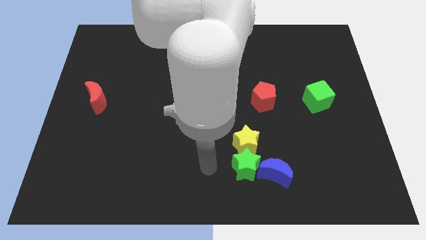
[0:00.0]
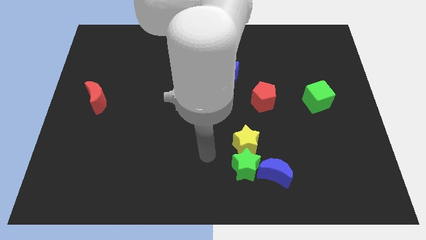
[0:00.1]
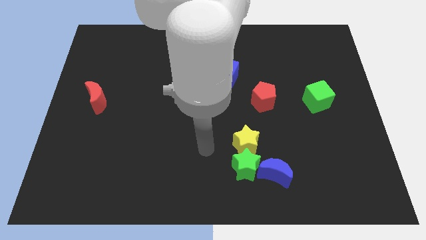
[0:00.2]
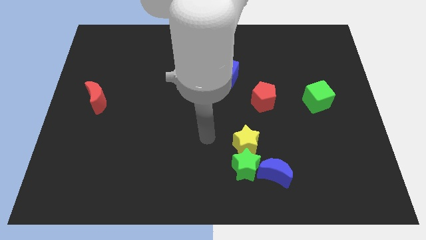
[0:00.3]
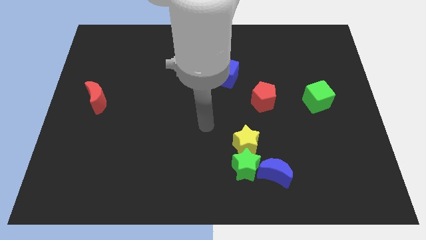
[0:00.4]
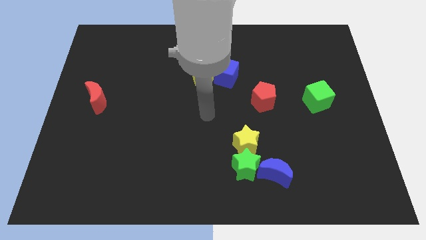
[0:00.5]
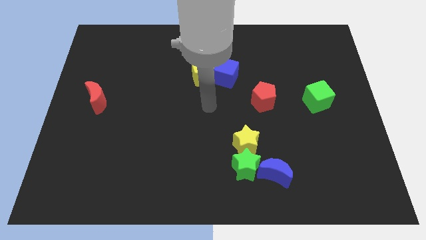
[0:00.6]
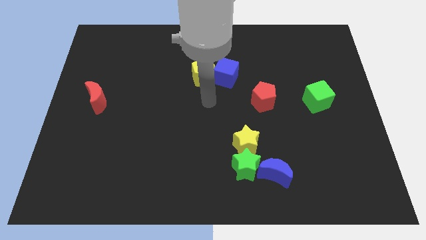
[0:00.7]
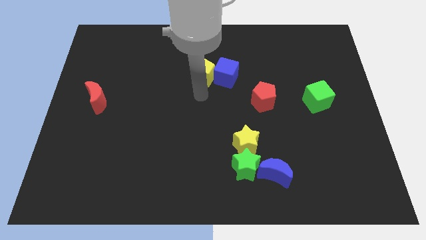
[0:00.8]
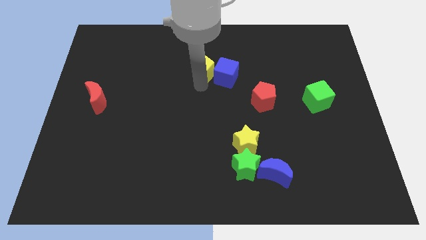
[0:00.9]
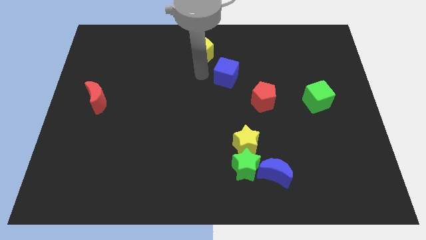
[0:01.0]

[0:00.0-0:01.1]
pull the blue cube apart from the yellow pentagon

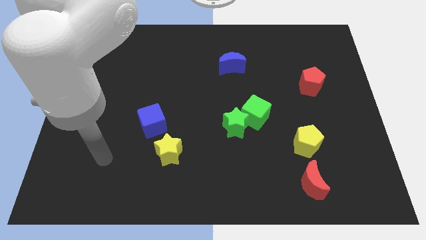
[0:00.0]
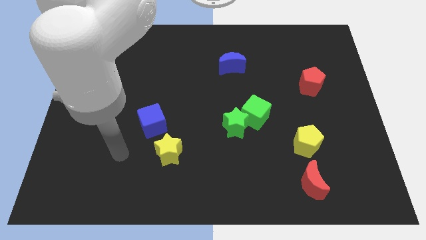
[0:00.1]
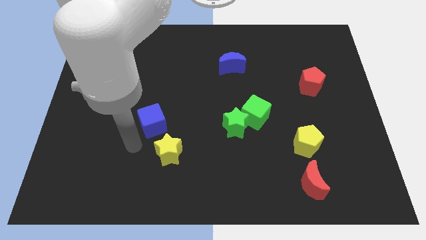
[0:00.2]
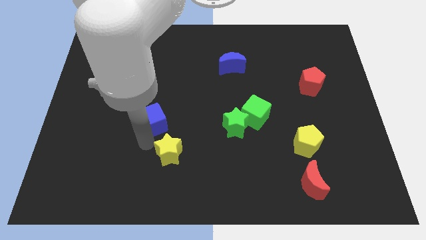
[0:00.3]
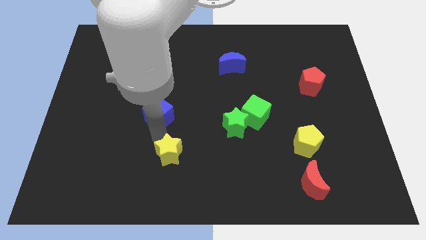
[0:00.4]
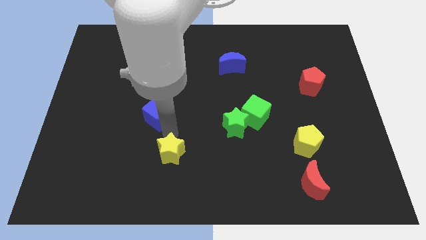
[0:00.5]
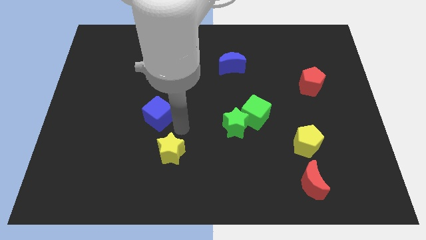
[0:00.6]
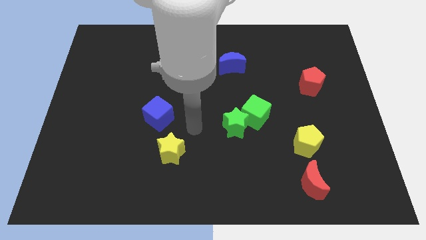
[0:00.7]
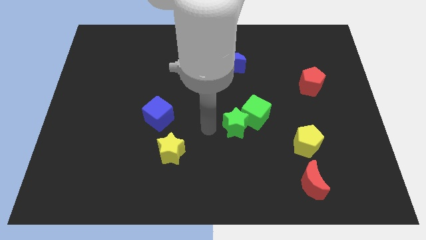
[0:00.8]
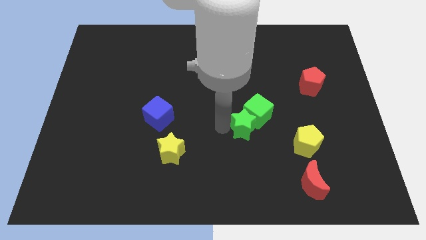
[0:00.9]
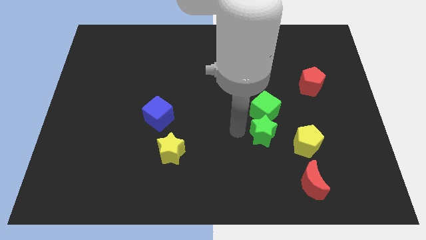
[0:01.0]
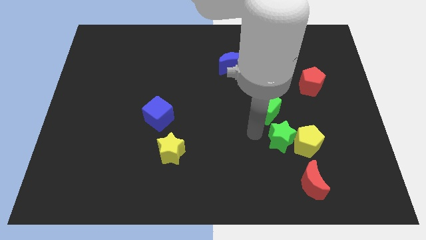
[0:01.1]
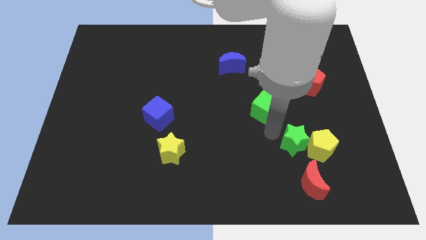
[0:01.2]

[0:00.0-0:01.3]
move the green cube away from the green star

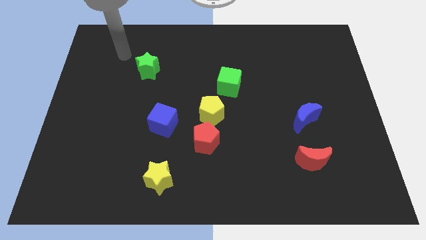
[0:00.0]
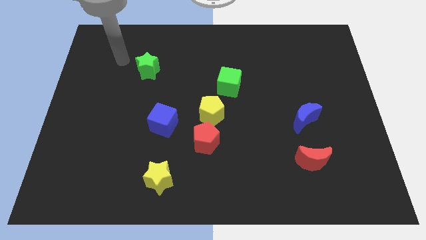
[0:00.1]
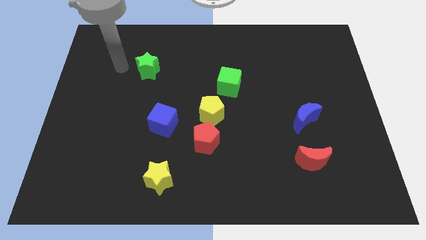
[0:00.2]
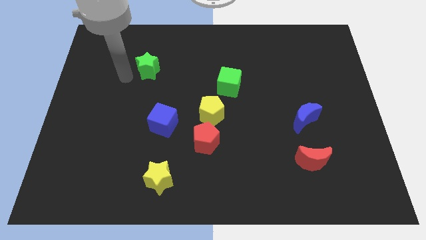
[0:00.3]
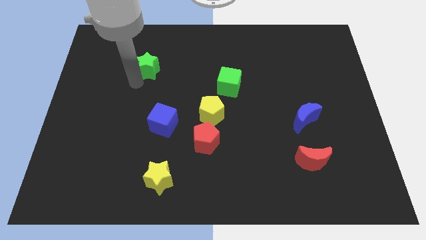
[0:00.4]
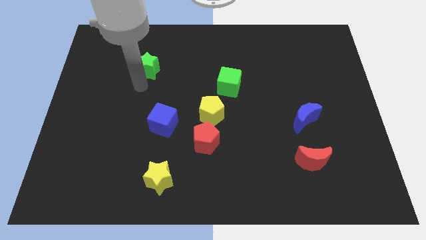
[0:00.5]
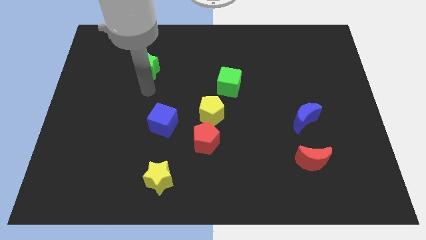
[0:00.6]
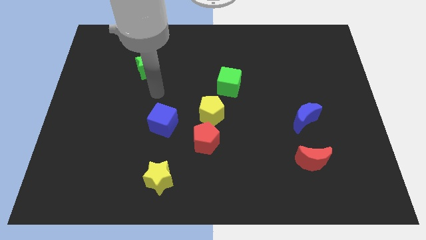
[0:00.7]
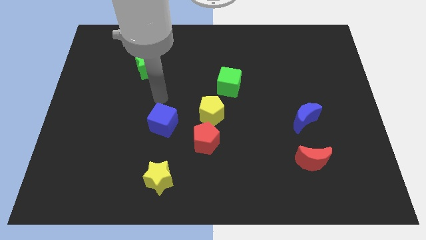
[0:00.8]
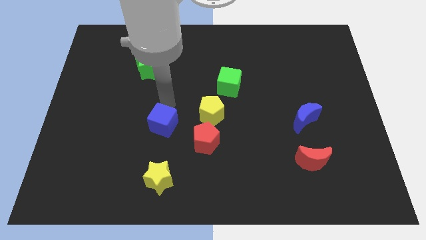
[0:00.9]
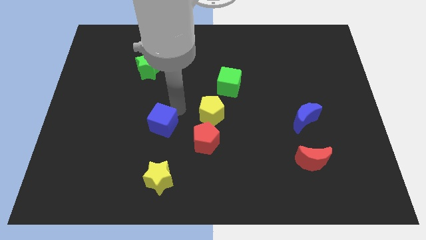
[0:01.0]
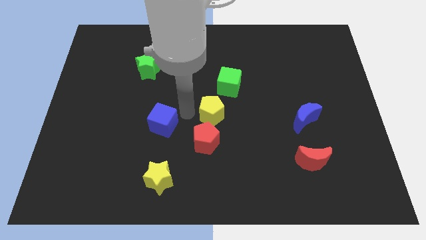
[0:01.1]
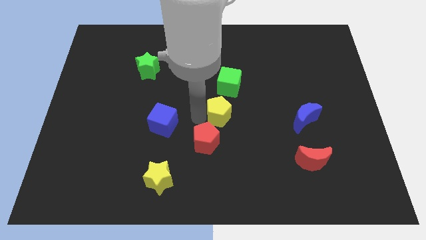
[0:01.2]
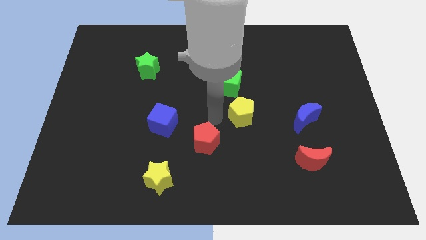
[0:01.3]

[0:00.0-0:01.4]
separate the red pentagon from the yellow pentagon

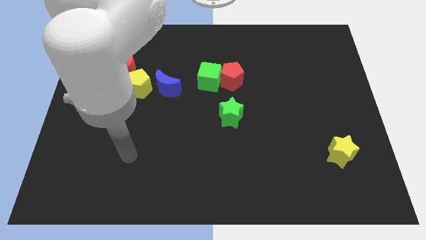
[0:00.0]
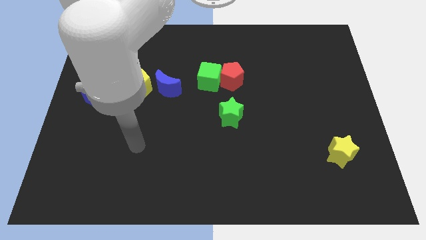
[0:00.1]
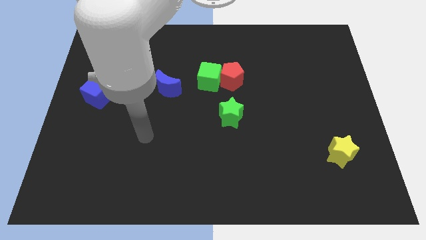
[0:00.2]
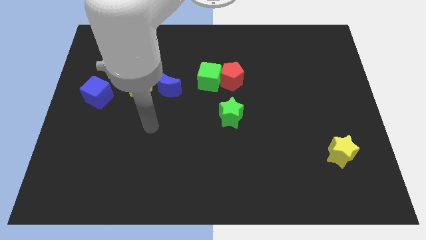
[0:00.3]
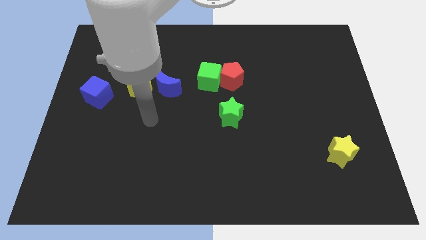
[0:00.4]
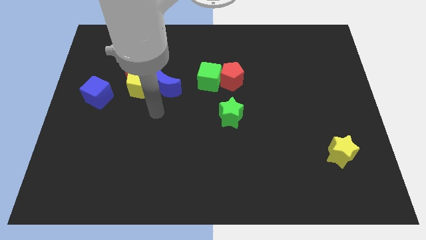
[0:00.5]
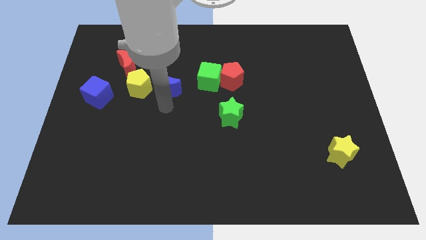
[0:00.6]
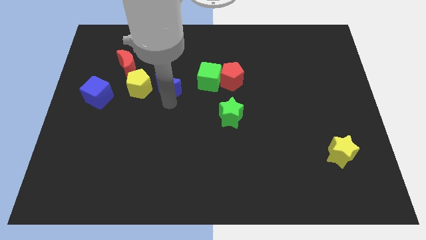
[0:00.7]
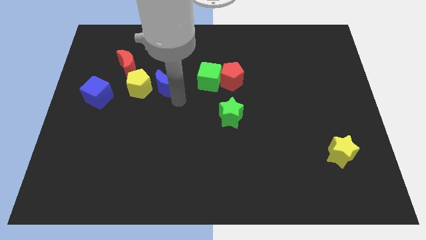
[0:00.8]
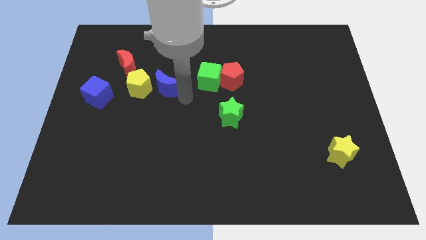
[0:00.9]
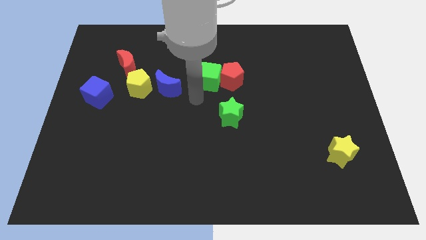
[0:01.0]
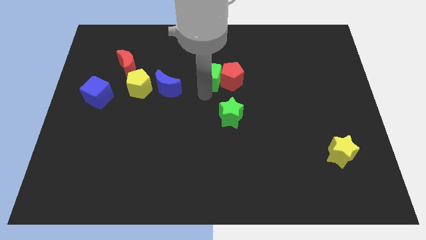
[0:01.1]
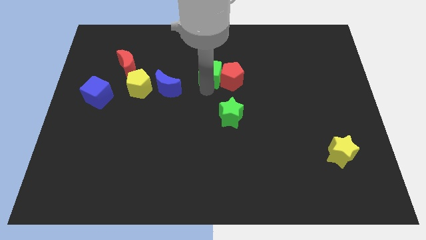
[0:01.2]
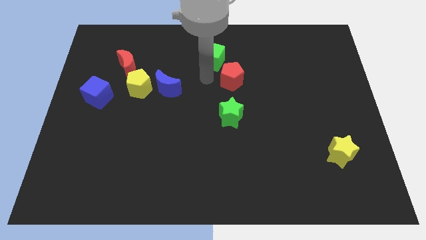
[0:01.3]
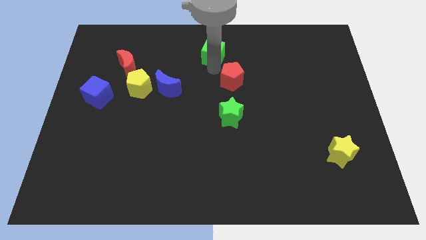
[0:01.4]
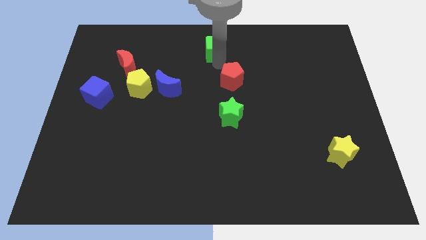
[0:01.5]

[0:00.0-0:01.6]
pull the red pentagon apart from the green cube

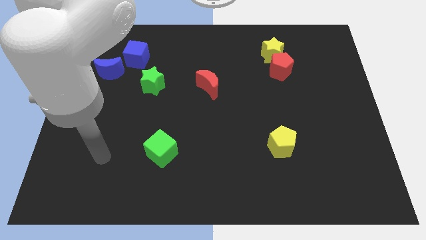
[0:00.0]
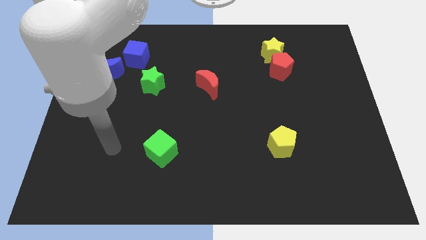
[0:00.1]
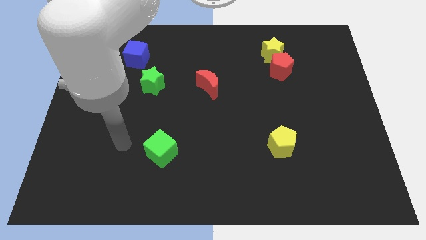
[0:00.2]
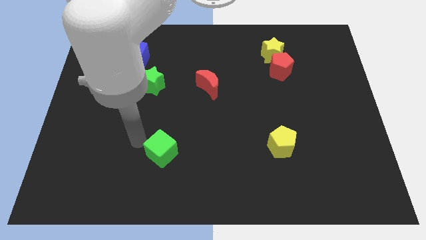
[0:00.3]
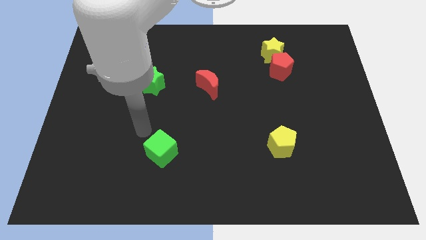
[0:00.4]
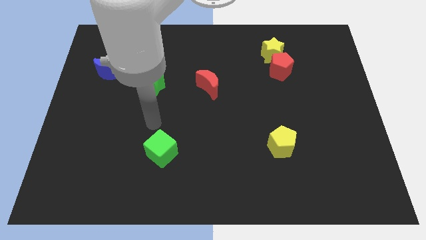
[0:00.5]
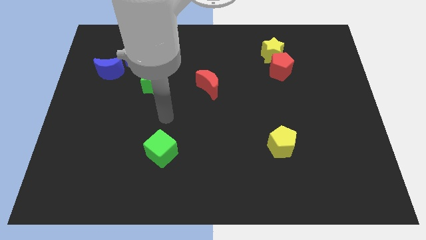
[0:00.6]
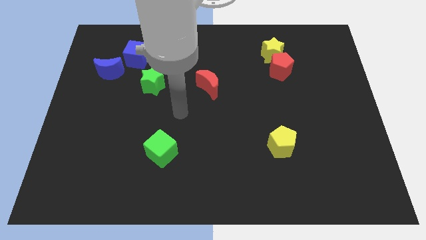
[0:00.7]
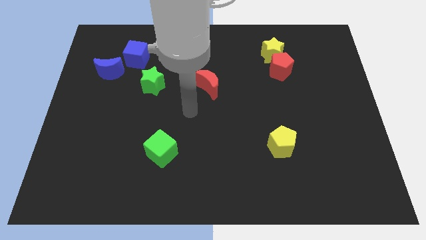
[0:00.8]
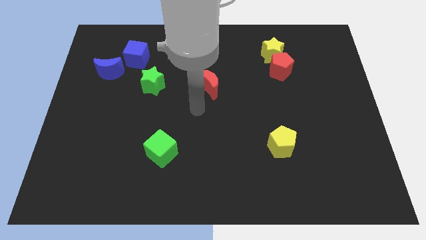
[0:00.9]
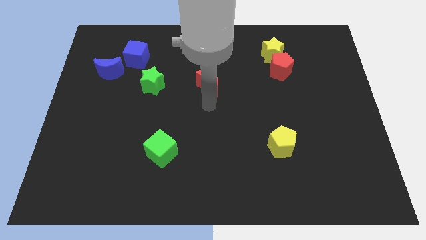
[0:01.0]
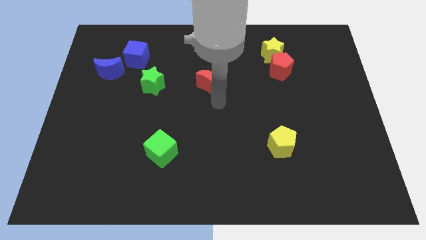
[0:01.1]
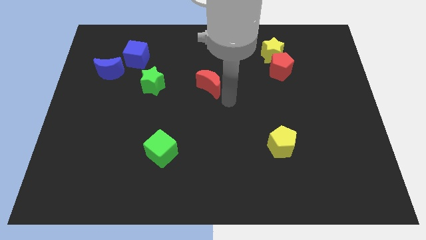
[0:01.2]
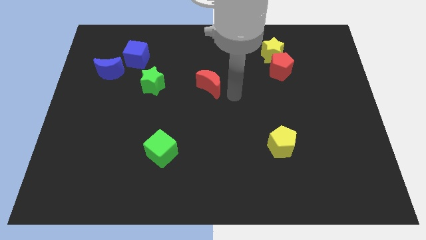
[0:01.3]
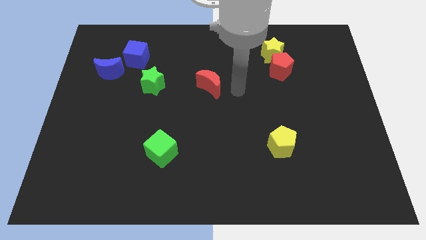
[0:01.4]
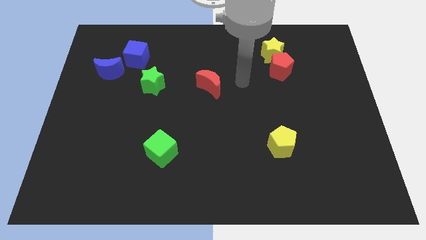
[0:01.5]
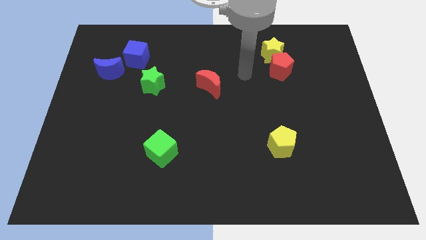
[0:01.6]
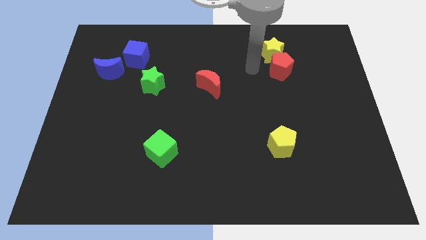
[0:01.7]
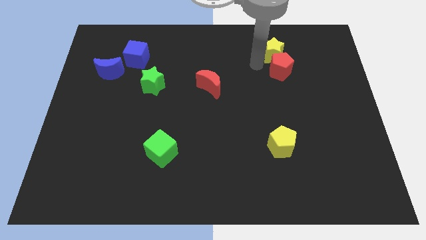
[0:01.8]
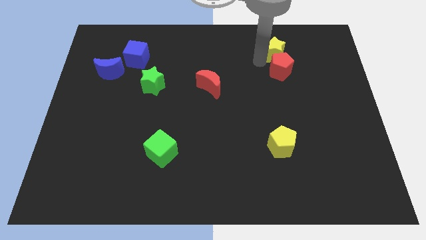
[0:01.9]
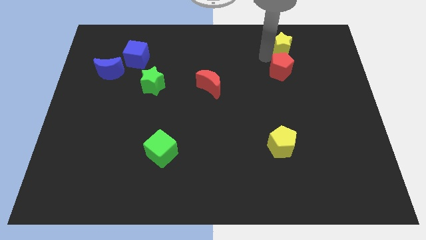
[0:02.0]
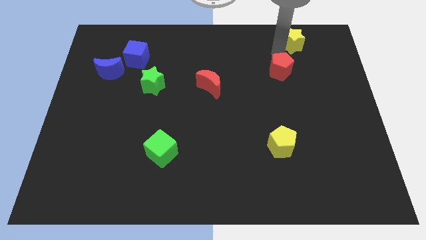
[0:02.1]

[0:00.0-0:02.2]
separate the red pentagon from the yellow star

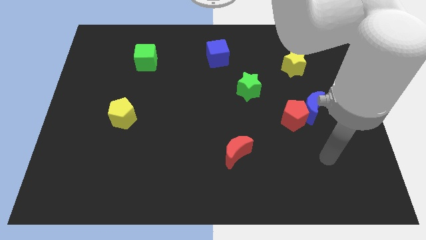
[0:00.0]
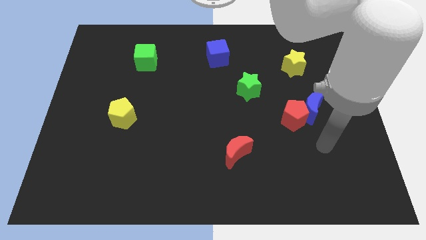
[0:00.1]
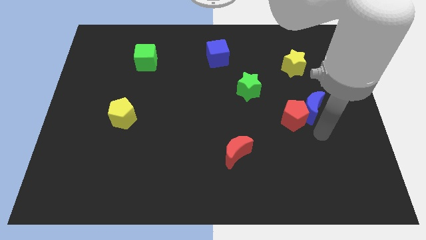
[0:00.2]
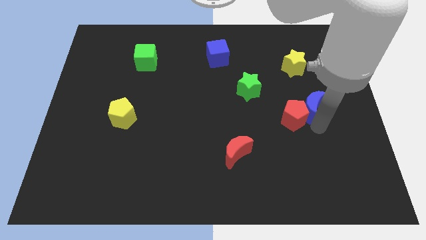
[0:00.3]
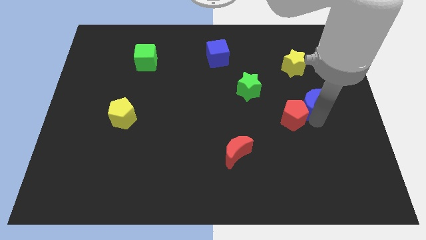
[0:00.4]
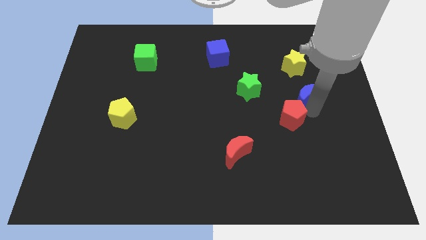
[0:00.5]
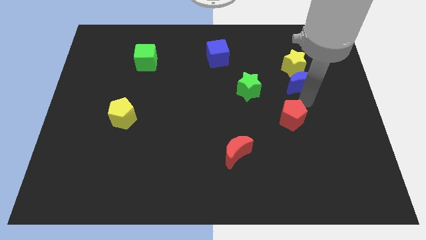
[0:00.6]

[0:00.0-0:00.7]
separate the red pentagon from the blue moon

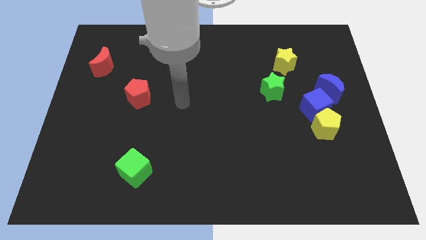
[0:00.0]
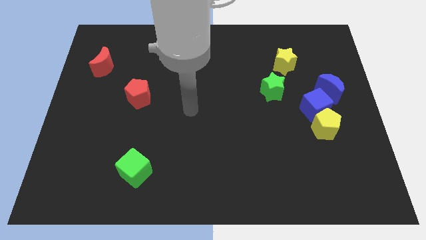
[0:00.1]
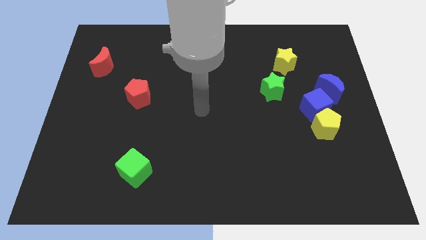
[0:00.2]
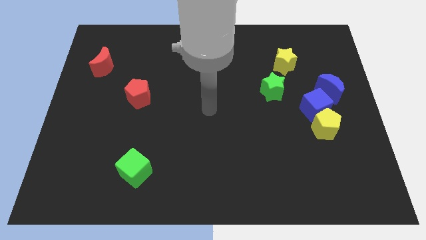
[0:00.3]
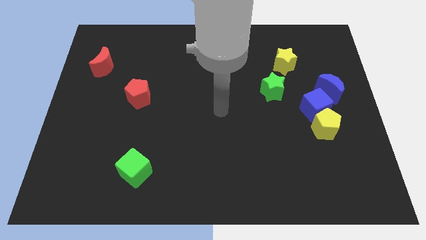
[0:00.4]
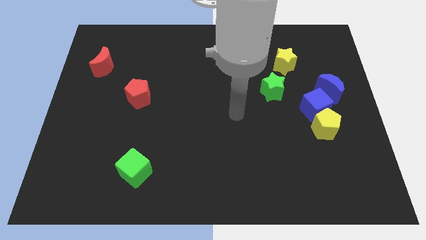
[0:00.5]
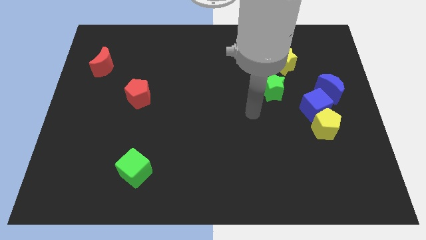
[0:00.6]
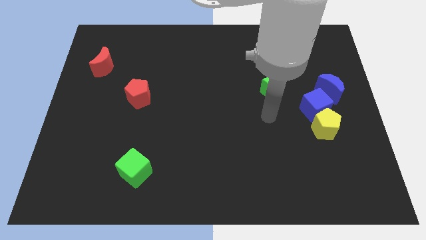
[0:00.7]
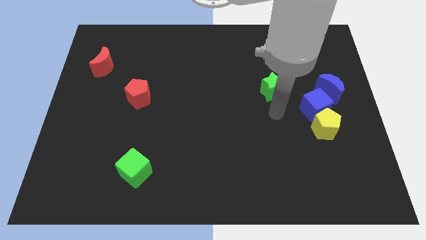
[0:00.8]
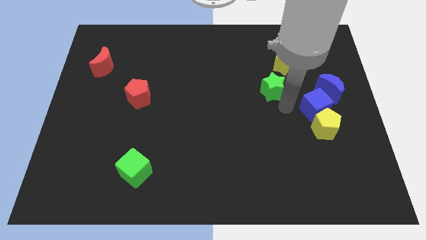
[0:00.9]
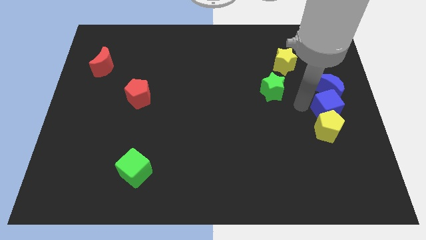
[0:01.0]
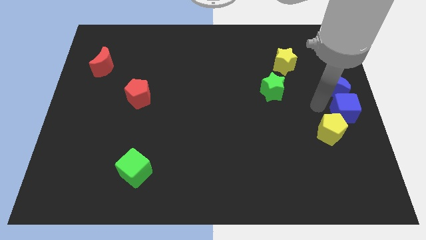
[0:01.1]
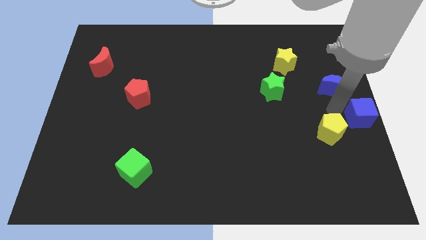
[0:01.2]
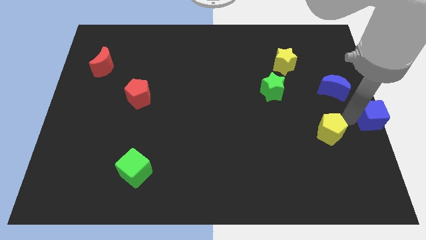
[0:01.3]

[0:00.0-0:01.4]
move the yellow pentagon away from the blue cube
